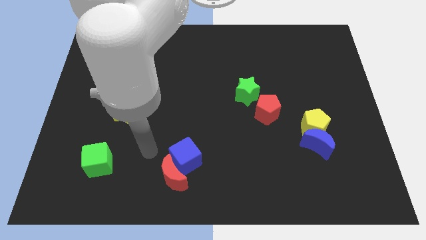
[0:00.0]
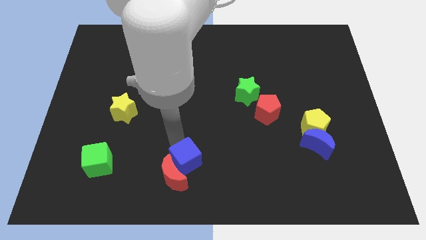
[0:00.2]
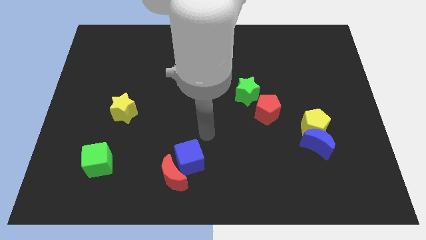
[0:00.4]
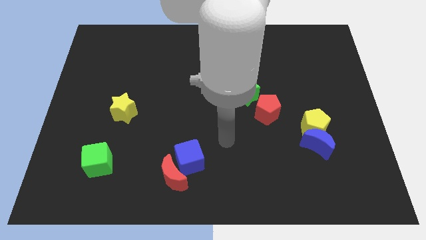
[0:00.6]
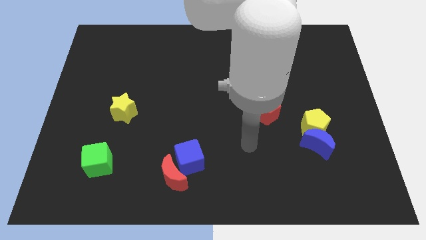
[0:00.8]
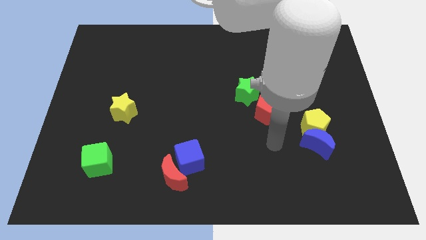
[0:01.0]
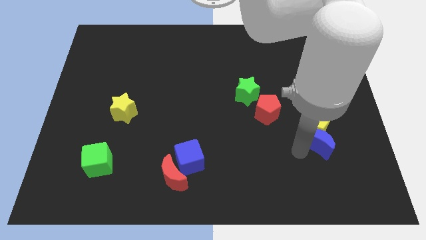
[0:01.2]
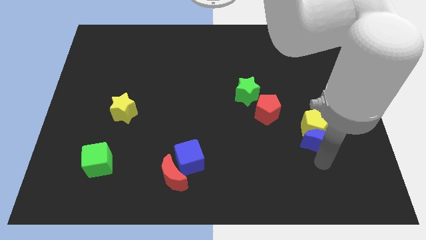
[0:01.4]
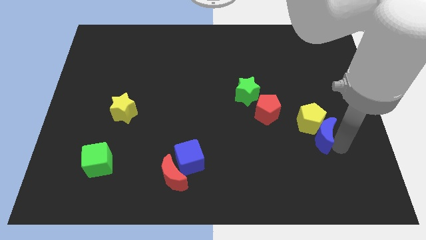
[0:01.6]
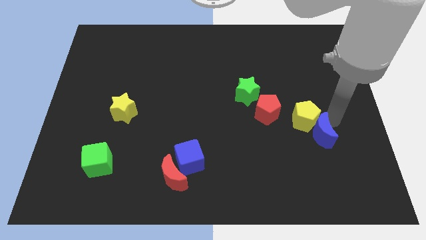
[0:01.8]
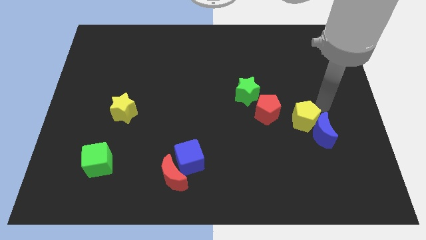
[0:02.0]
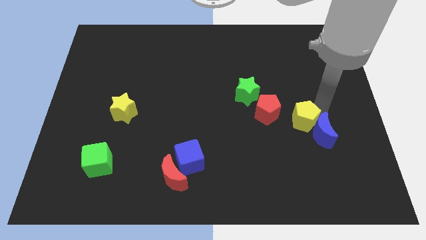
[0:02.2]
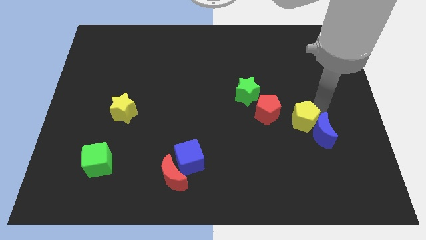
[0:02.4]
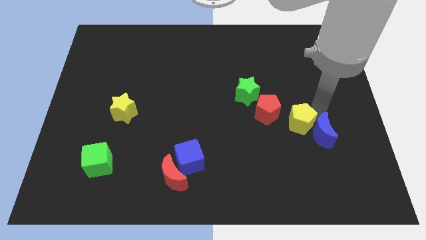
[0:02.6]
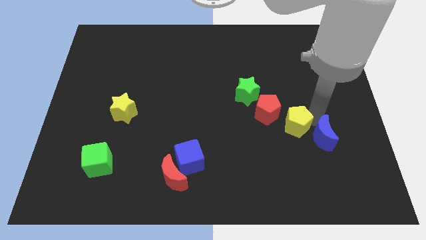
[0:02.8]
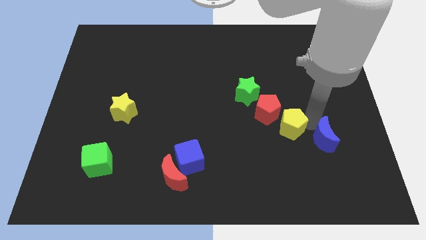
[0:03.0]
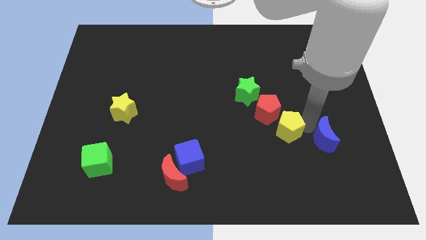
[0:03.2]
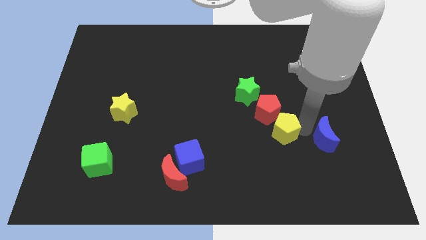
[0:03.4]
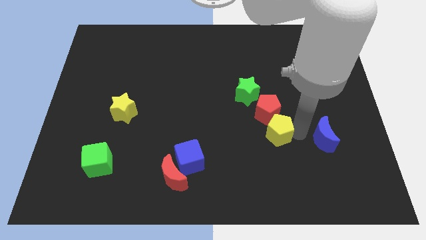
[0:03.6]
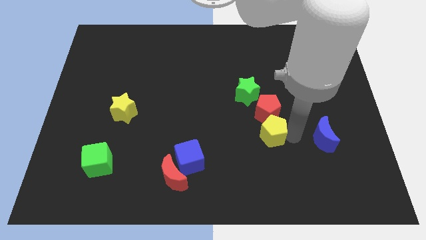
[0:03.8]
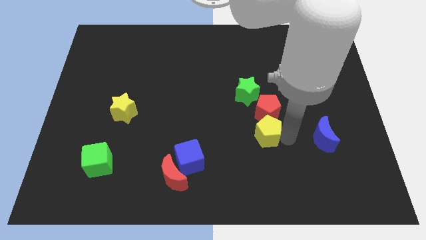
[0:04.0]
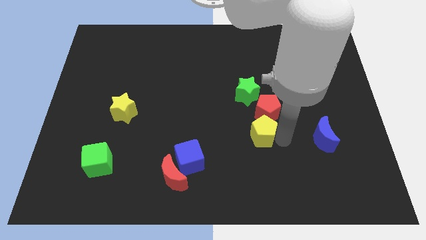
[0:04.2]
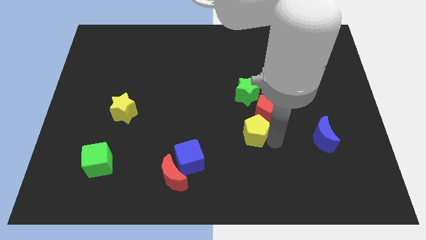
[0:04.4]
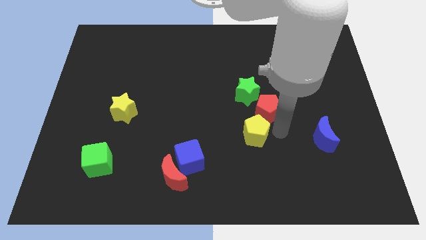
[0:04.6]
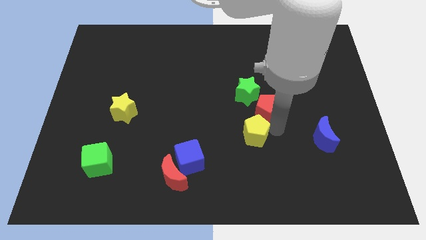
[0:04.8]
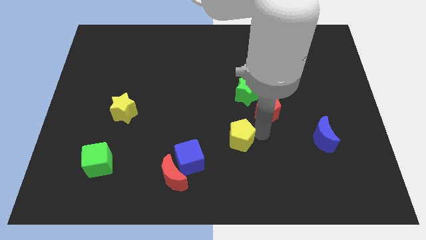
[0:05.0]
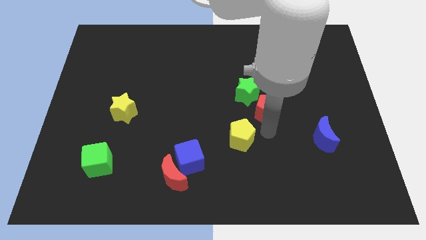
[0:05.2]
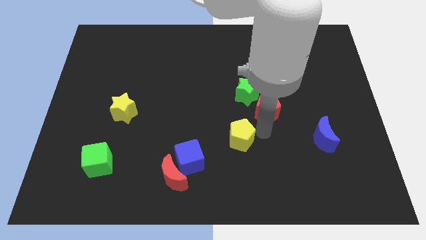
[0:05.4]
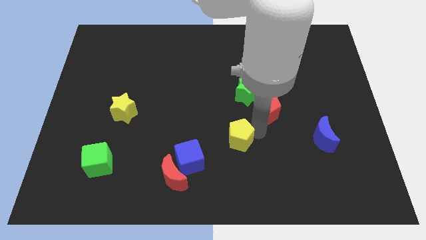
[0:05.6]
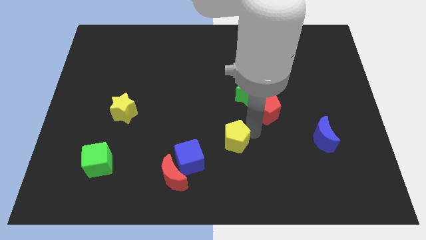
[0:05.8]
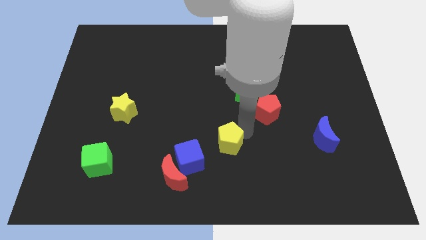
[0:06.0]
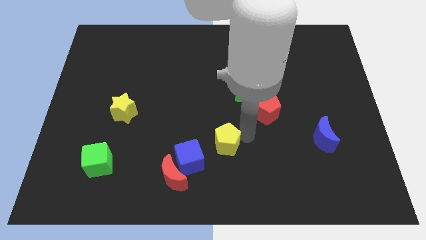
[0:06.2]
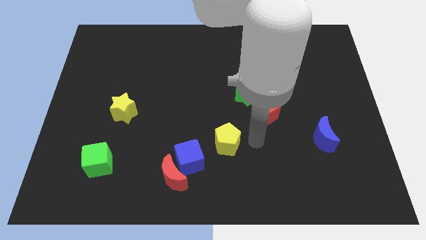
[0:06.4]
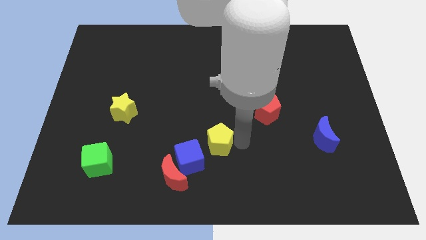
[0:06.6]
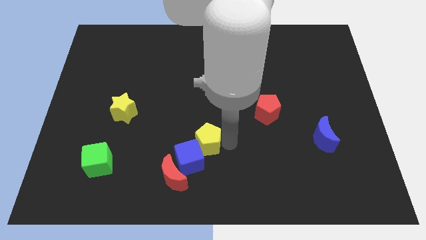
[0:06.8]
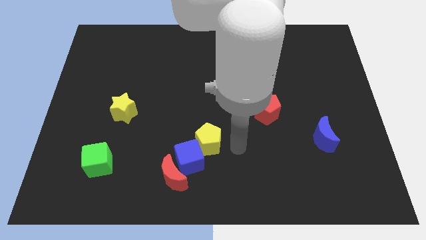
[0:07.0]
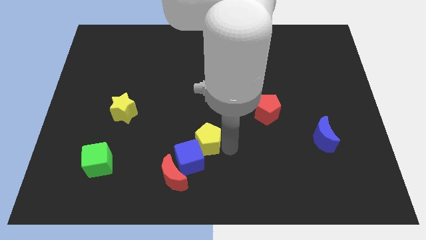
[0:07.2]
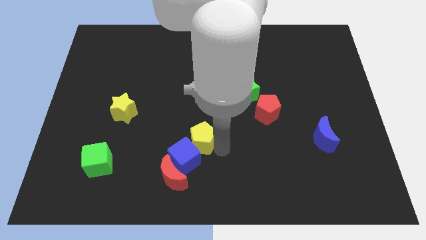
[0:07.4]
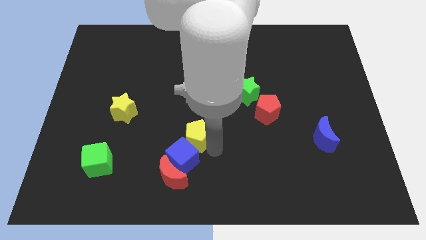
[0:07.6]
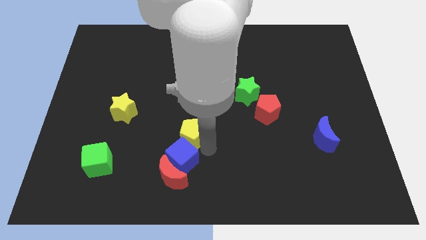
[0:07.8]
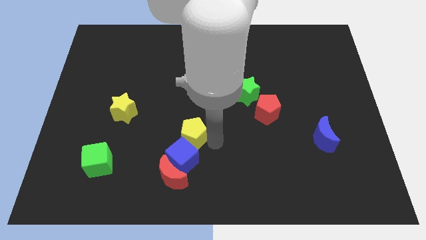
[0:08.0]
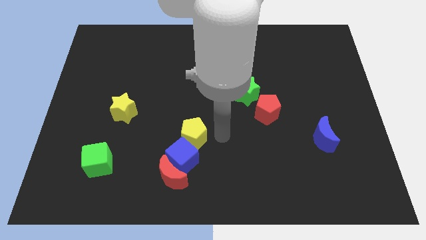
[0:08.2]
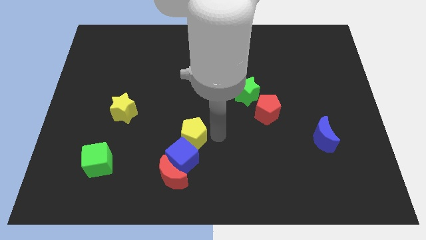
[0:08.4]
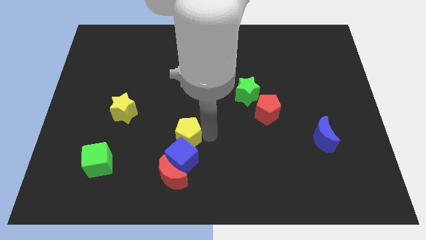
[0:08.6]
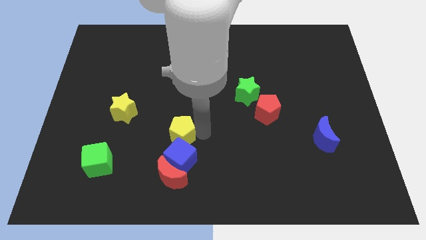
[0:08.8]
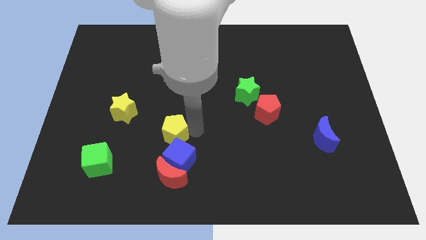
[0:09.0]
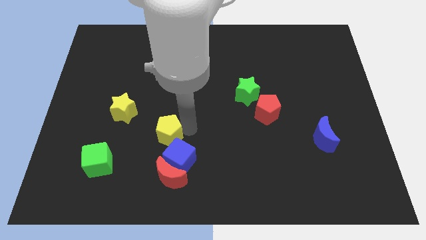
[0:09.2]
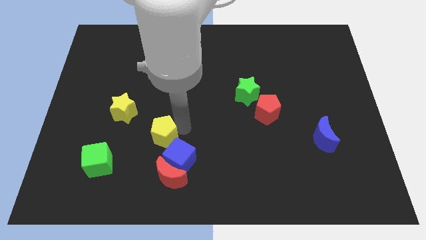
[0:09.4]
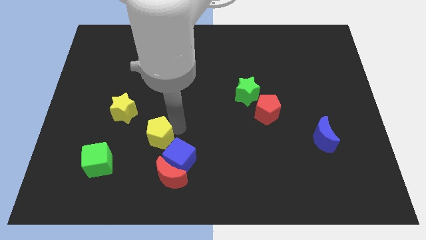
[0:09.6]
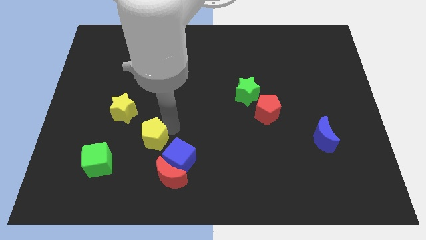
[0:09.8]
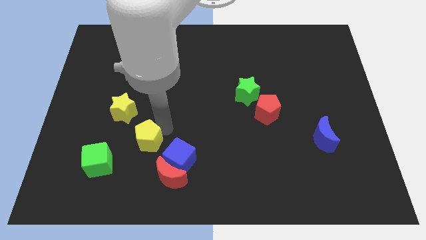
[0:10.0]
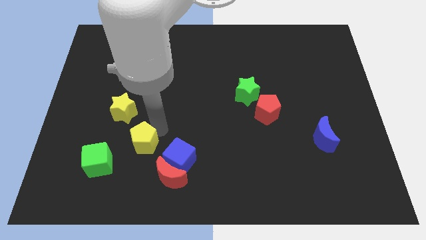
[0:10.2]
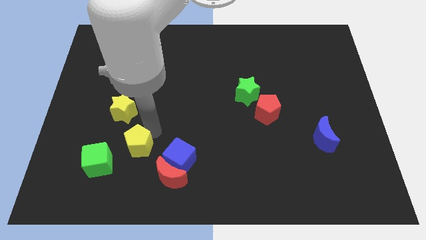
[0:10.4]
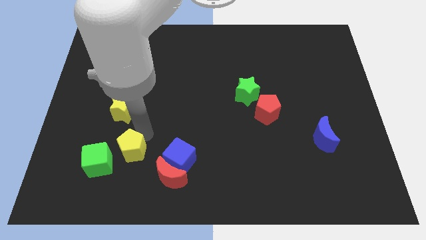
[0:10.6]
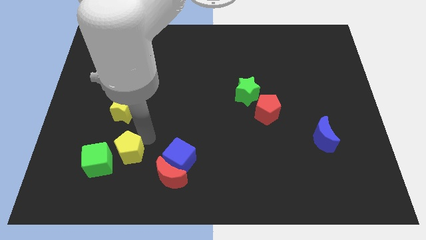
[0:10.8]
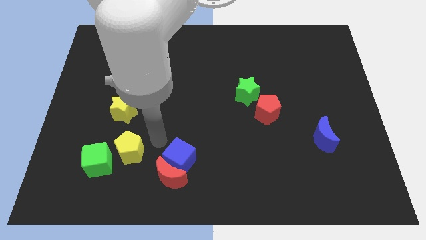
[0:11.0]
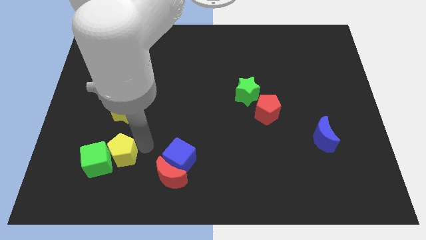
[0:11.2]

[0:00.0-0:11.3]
put the yellow pentagon towards the green cube

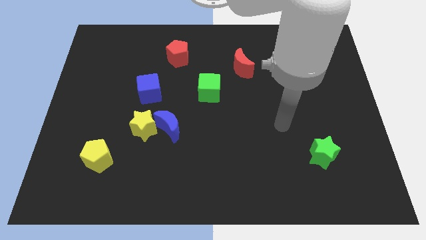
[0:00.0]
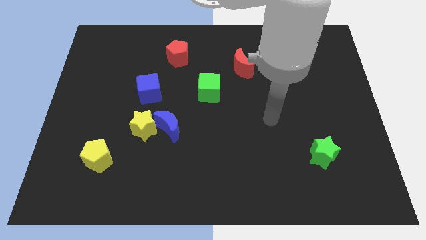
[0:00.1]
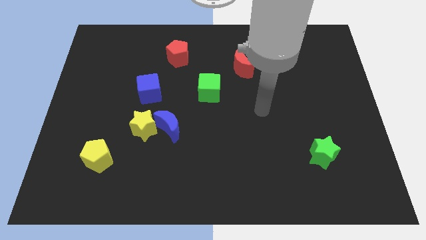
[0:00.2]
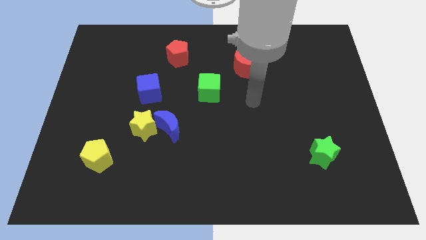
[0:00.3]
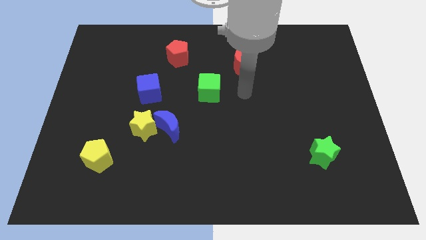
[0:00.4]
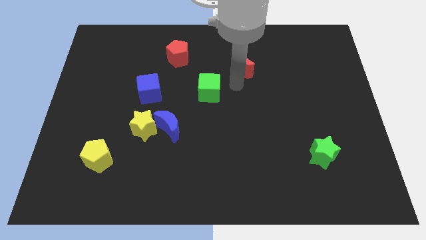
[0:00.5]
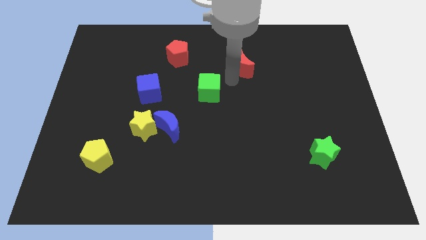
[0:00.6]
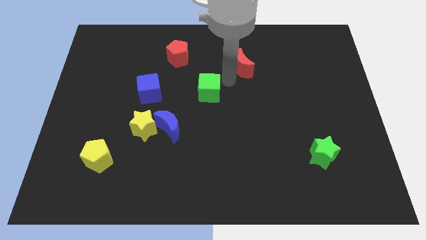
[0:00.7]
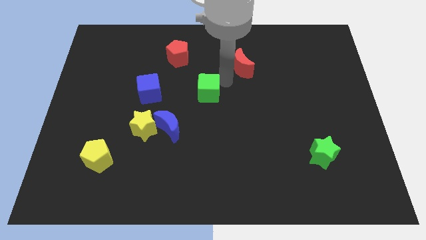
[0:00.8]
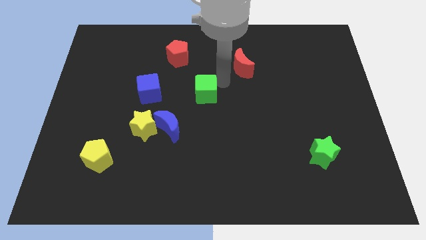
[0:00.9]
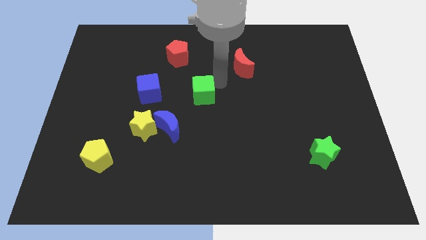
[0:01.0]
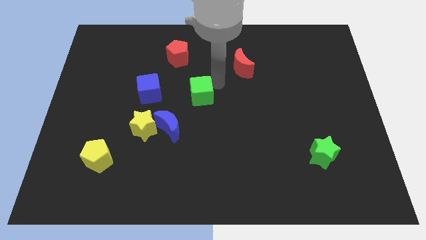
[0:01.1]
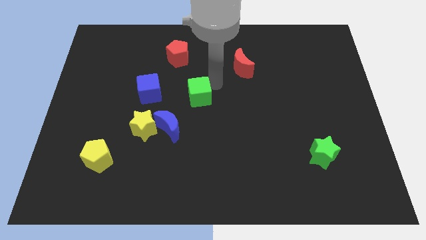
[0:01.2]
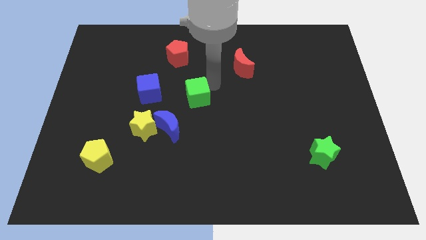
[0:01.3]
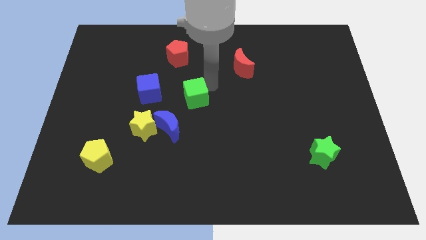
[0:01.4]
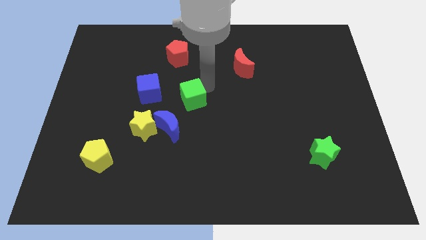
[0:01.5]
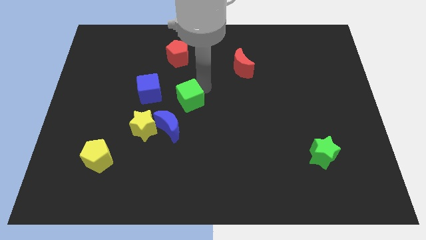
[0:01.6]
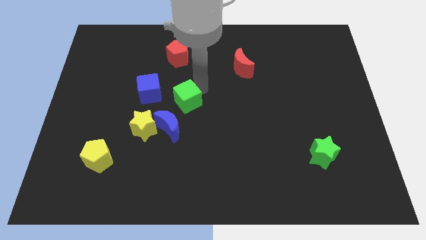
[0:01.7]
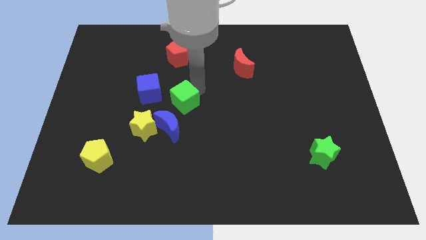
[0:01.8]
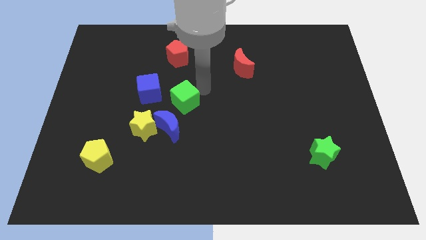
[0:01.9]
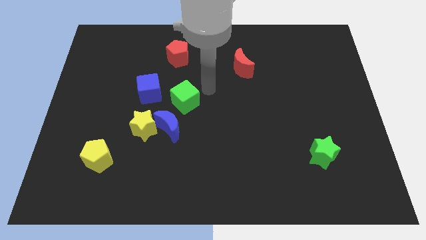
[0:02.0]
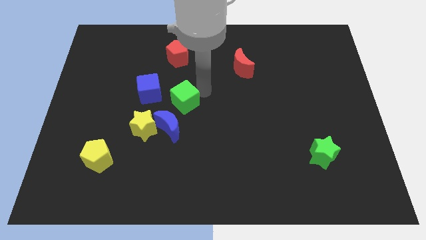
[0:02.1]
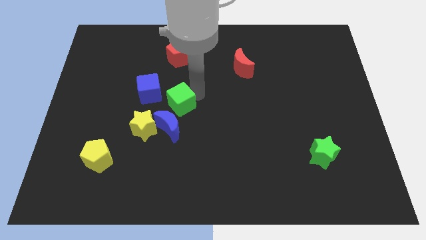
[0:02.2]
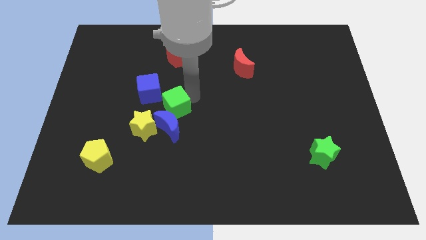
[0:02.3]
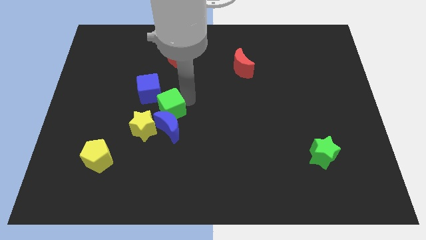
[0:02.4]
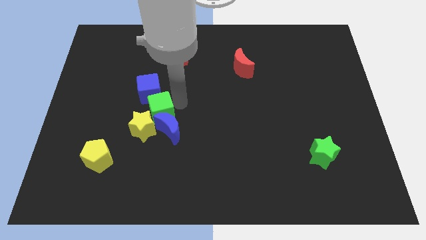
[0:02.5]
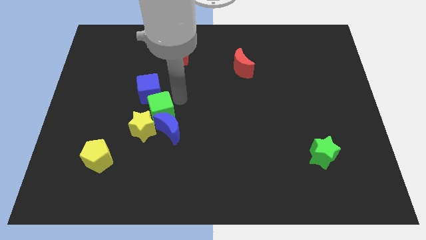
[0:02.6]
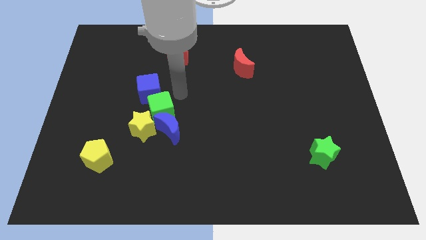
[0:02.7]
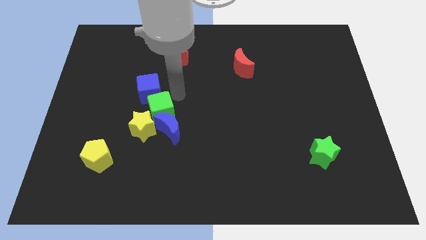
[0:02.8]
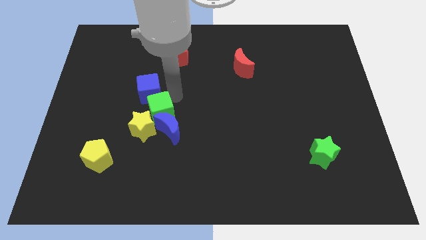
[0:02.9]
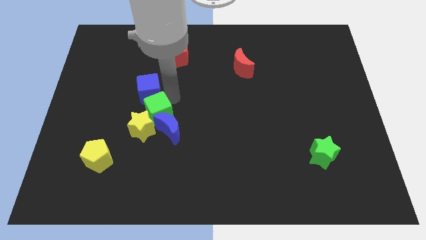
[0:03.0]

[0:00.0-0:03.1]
move the green cube to the yellow star
